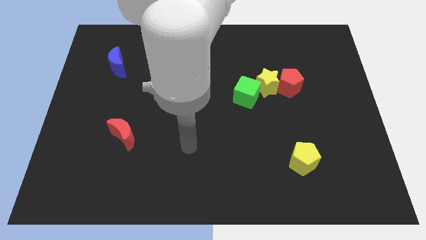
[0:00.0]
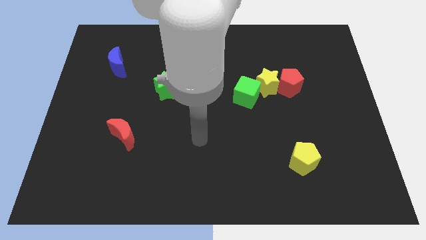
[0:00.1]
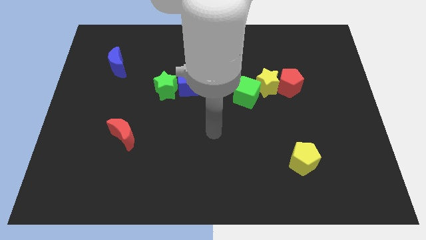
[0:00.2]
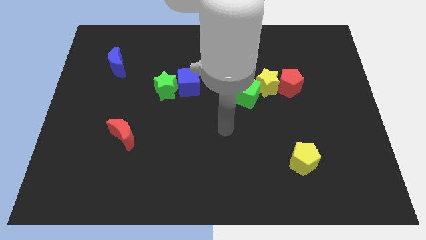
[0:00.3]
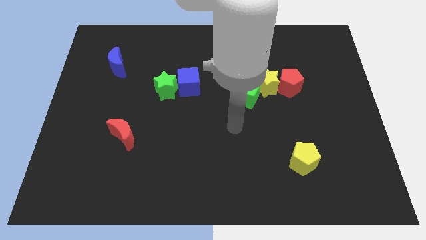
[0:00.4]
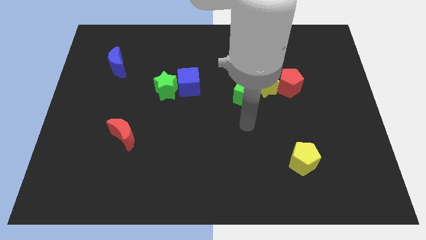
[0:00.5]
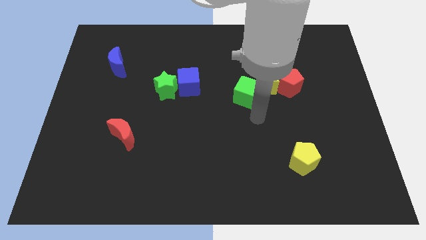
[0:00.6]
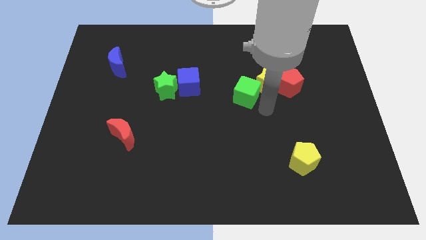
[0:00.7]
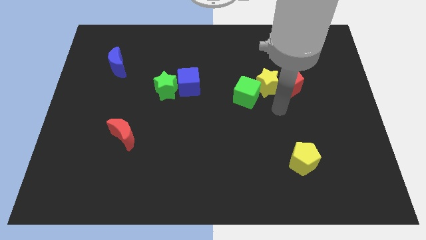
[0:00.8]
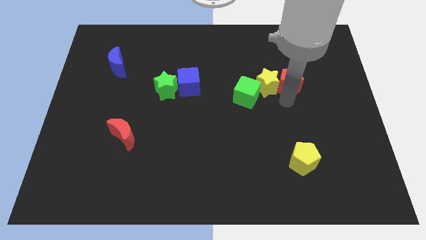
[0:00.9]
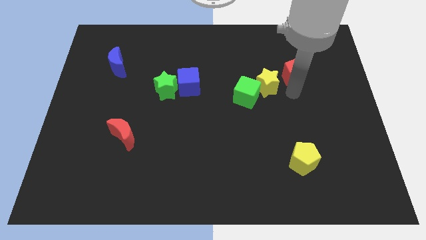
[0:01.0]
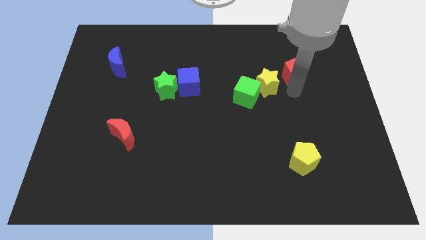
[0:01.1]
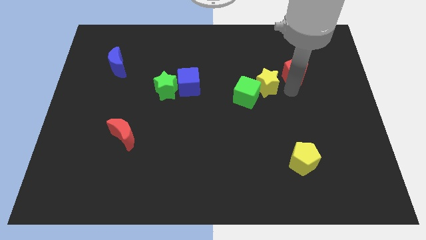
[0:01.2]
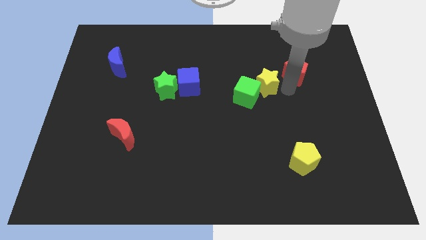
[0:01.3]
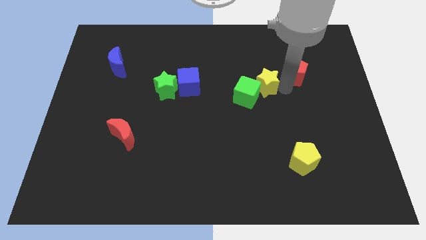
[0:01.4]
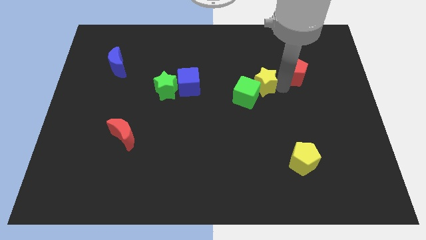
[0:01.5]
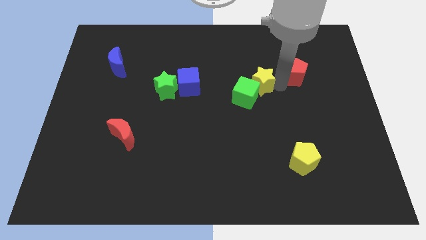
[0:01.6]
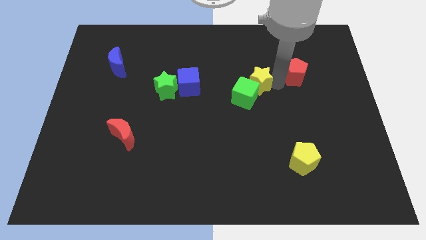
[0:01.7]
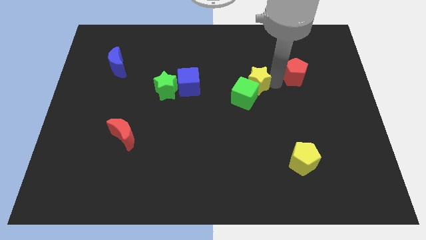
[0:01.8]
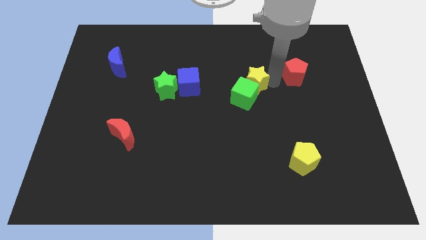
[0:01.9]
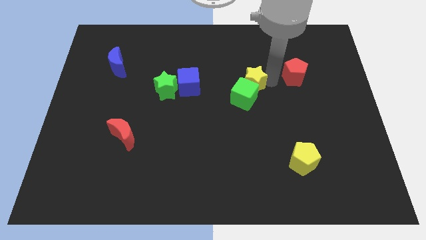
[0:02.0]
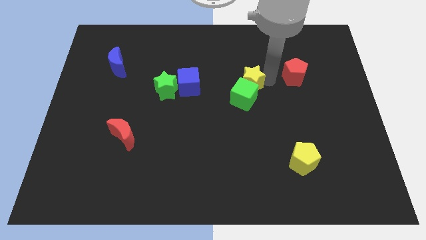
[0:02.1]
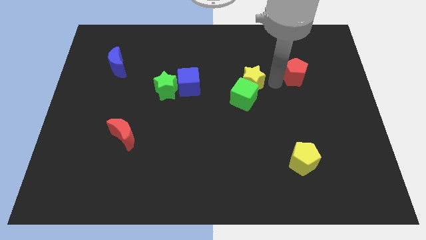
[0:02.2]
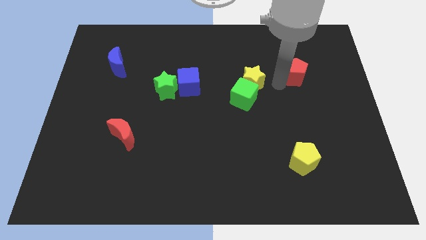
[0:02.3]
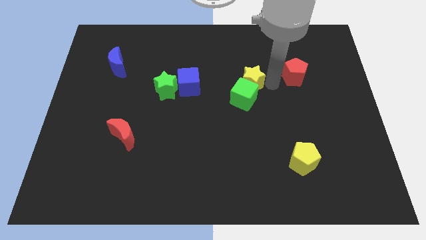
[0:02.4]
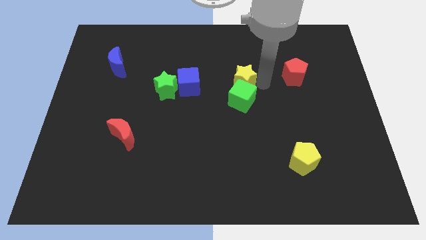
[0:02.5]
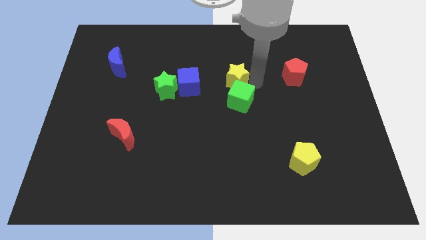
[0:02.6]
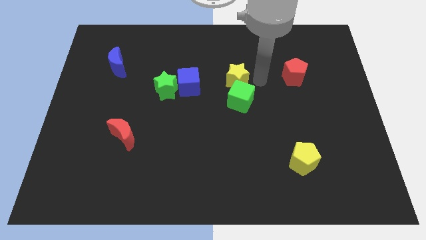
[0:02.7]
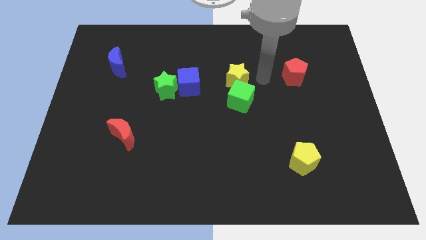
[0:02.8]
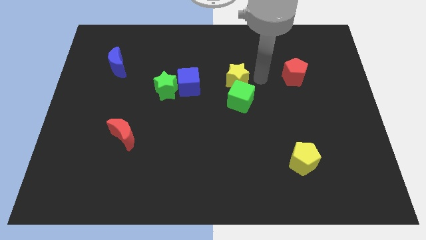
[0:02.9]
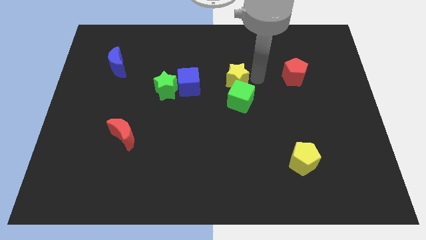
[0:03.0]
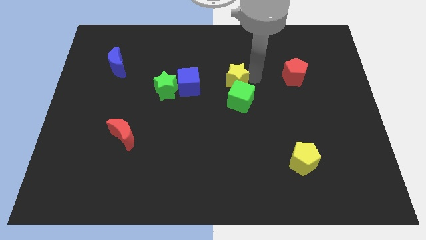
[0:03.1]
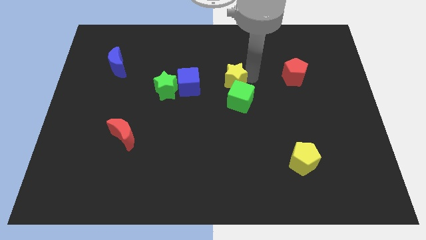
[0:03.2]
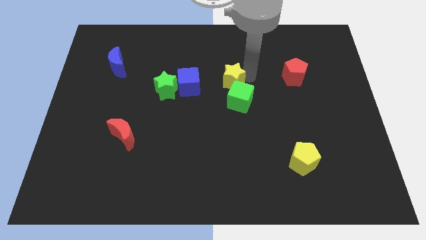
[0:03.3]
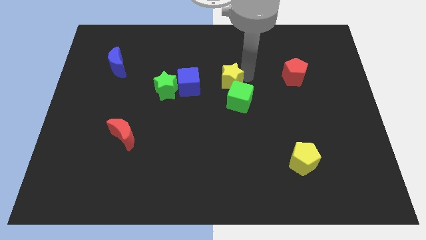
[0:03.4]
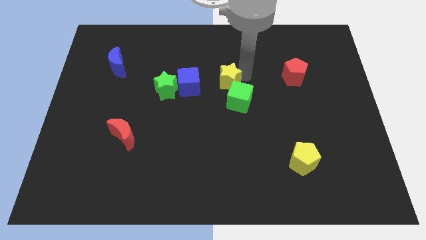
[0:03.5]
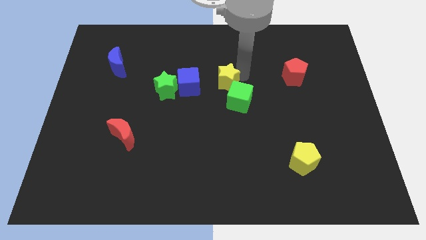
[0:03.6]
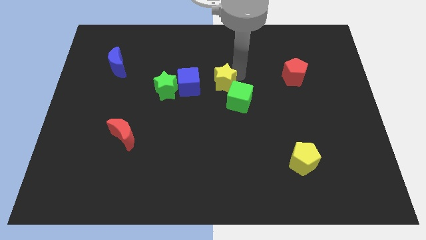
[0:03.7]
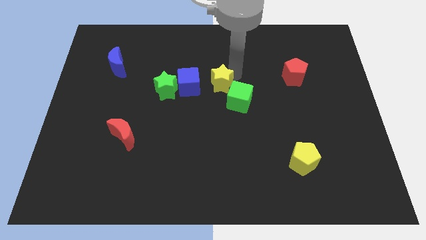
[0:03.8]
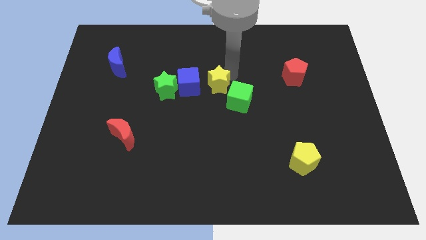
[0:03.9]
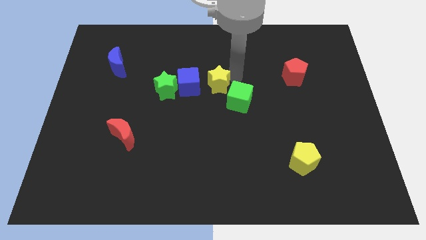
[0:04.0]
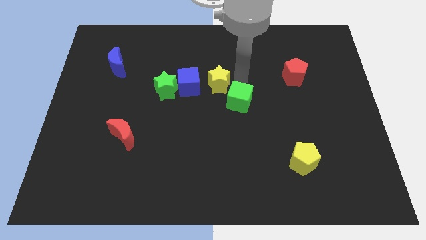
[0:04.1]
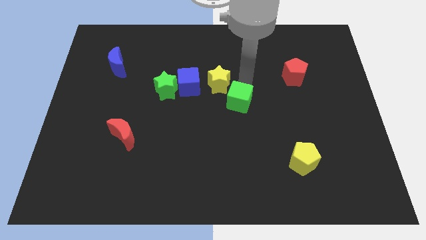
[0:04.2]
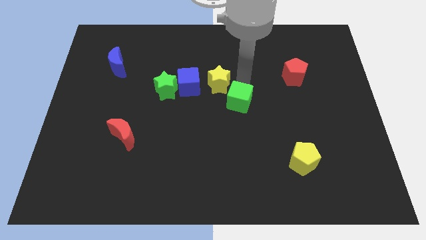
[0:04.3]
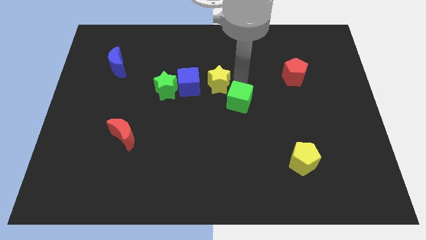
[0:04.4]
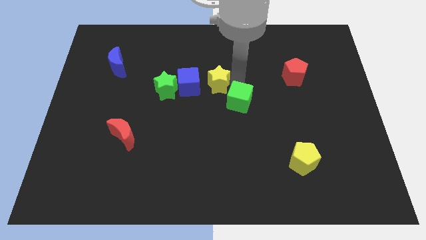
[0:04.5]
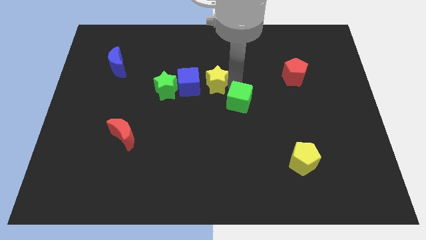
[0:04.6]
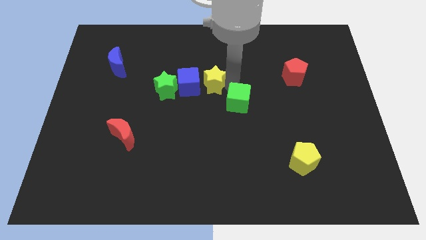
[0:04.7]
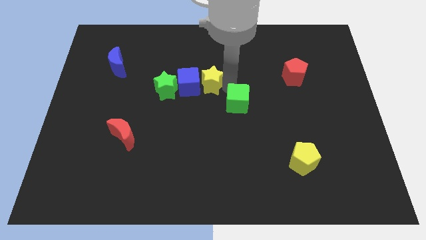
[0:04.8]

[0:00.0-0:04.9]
move the yellow star towards the blue cube

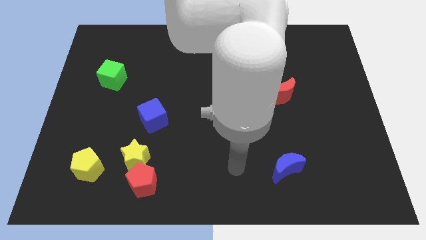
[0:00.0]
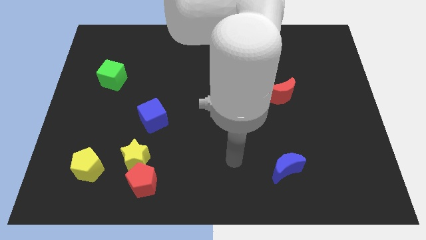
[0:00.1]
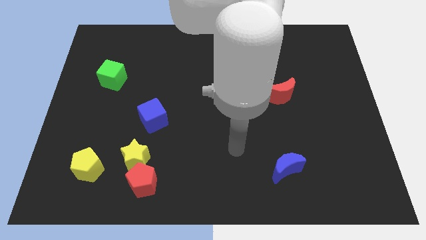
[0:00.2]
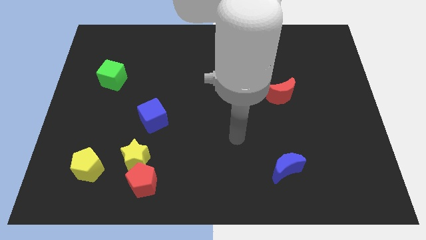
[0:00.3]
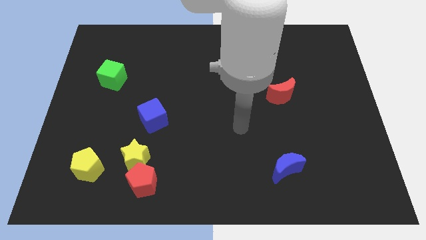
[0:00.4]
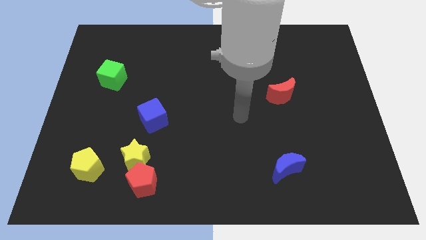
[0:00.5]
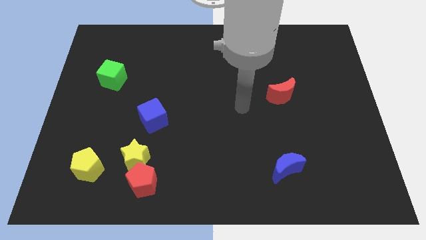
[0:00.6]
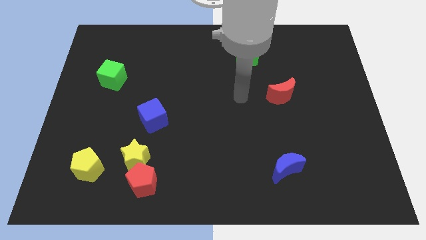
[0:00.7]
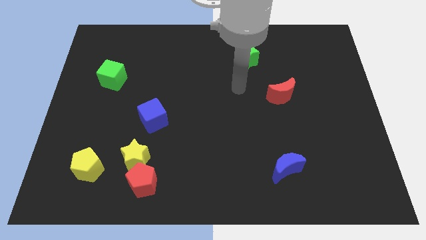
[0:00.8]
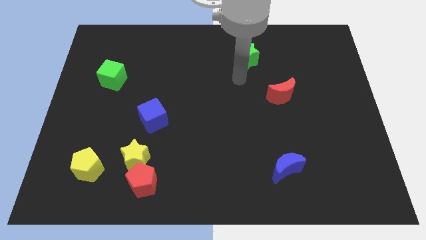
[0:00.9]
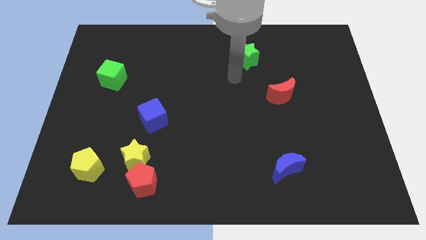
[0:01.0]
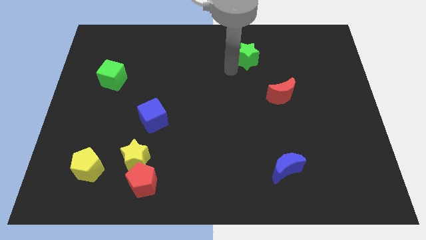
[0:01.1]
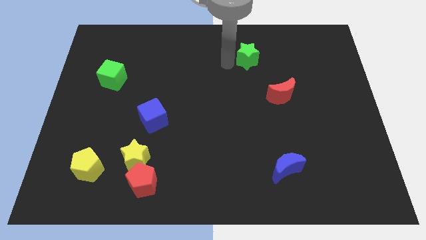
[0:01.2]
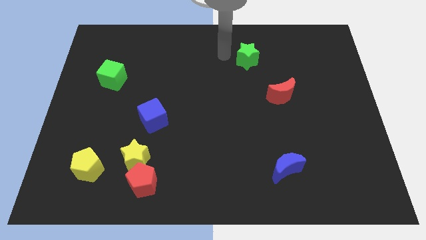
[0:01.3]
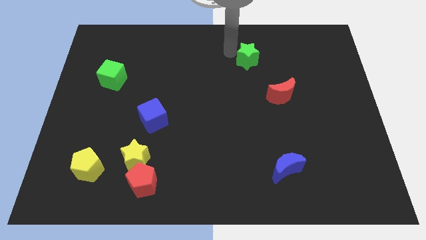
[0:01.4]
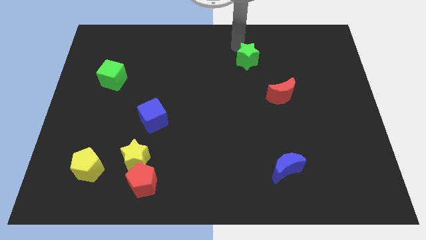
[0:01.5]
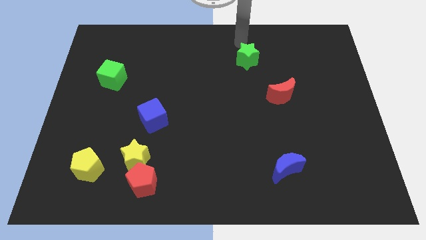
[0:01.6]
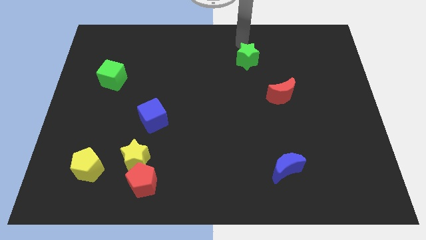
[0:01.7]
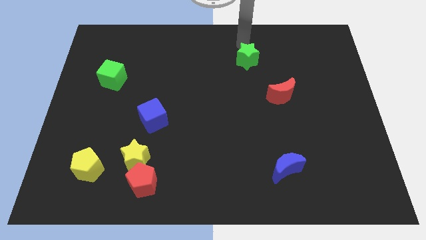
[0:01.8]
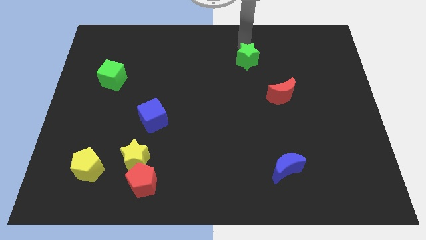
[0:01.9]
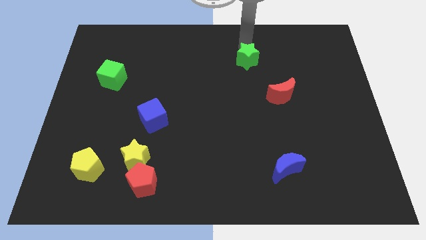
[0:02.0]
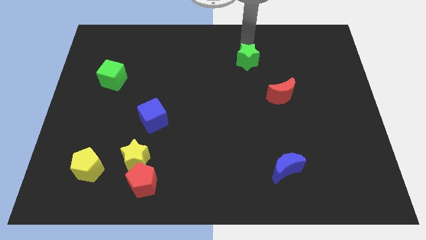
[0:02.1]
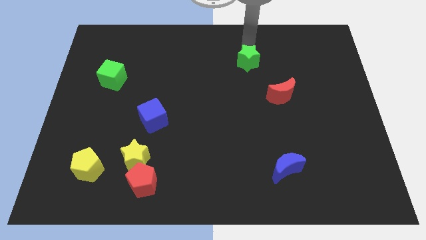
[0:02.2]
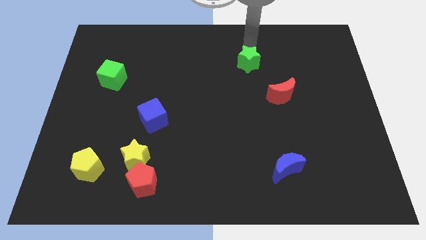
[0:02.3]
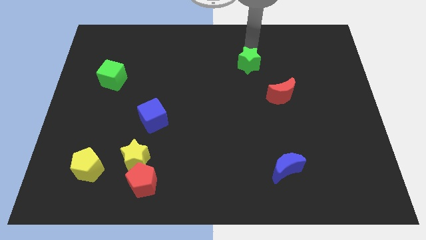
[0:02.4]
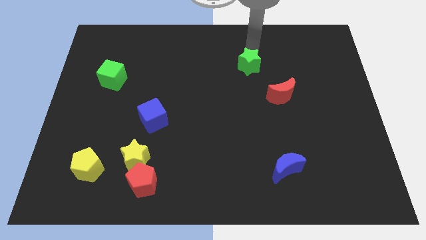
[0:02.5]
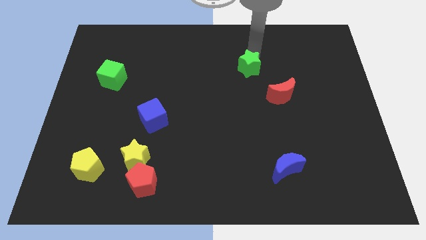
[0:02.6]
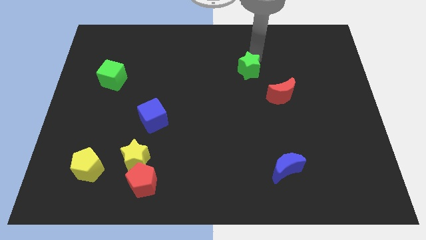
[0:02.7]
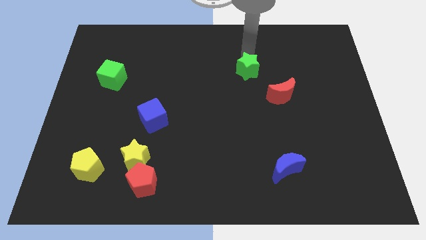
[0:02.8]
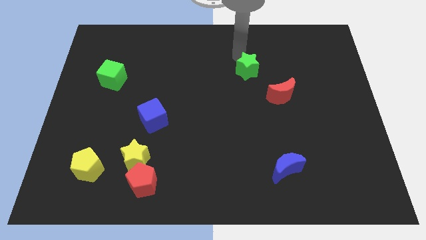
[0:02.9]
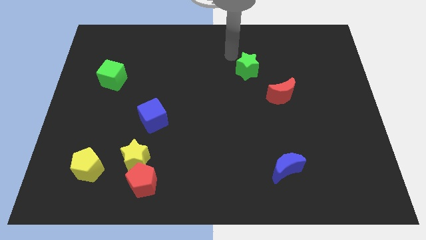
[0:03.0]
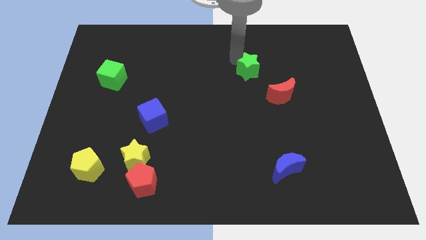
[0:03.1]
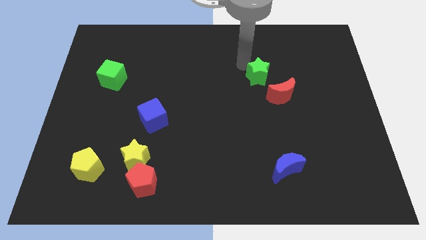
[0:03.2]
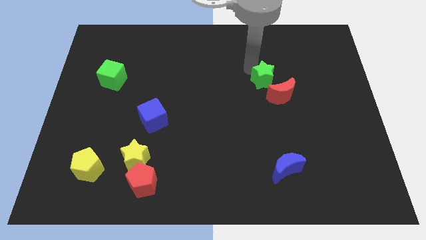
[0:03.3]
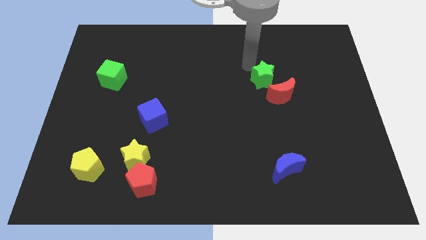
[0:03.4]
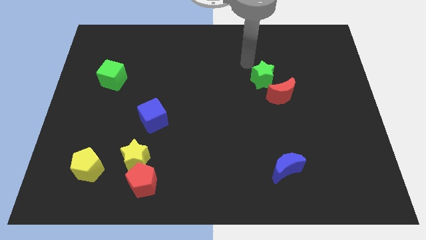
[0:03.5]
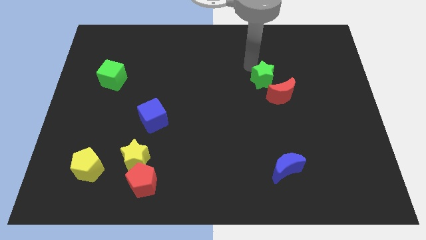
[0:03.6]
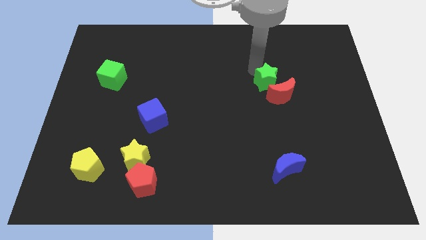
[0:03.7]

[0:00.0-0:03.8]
move the green star next to the red moon
